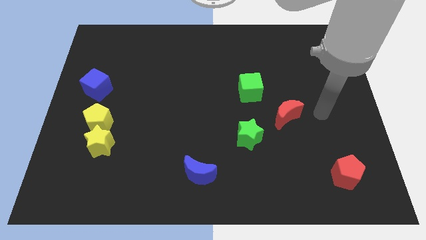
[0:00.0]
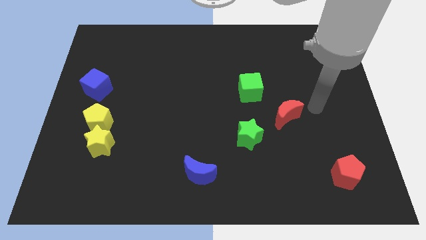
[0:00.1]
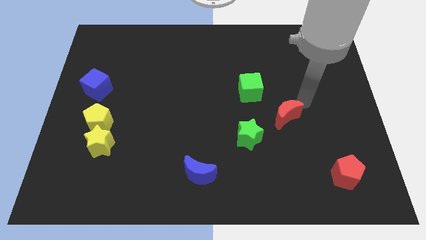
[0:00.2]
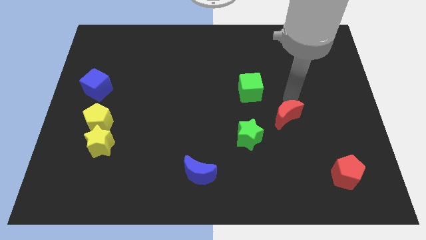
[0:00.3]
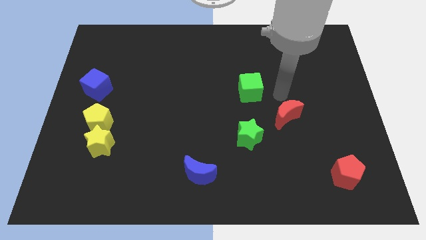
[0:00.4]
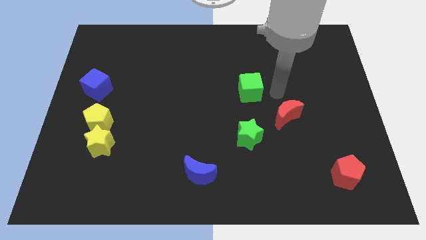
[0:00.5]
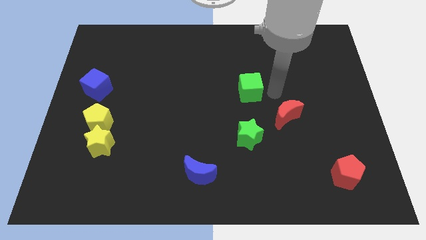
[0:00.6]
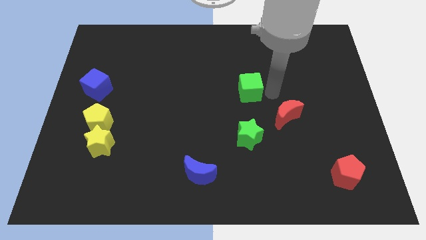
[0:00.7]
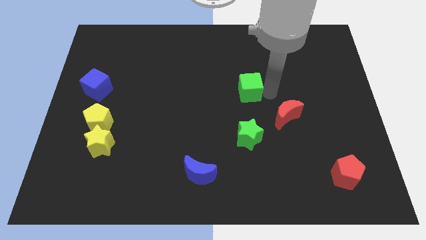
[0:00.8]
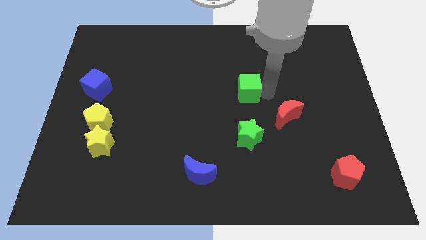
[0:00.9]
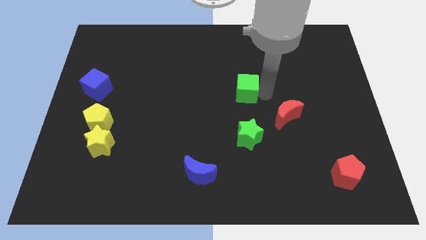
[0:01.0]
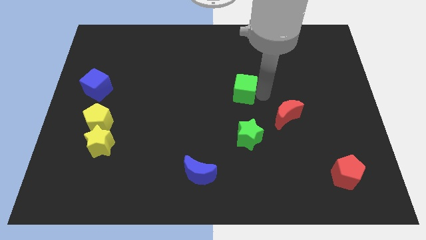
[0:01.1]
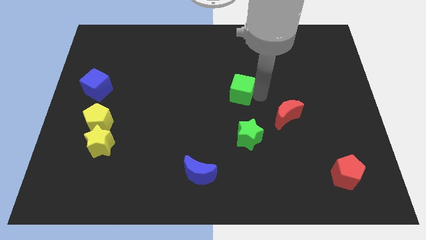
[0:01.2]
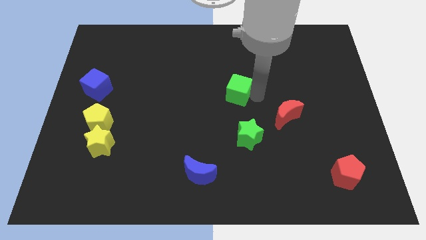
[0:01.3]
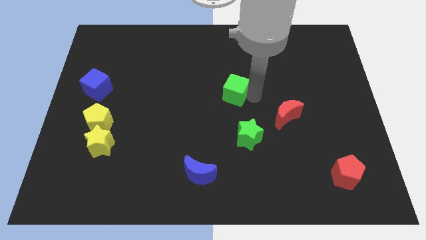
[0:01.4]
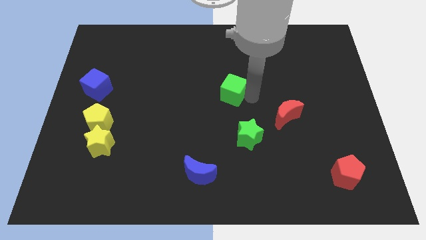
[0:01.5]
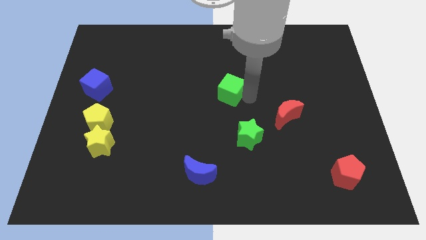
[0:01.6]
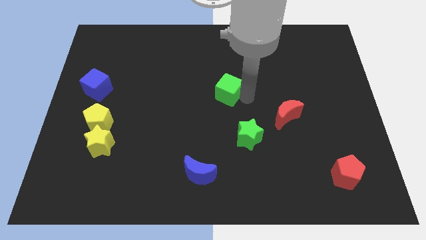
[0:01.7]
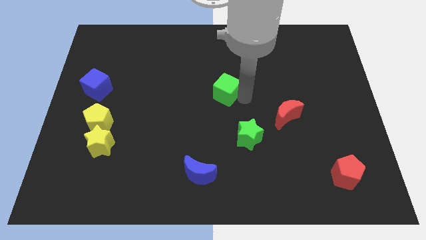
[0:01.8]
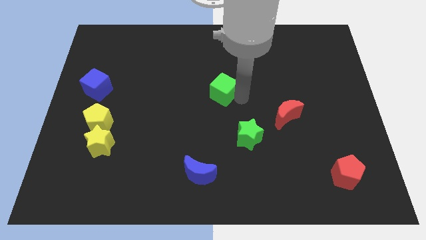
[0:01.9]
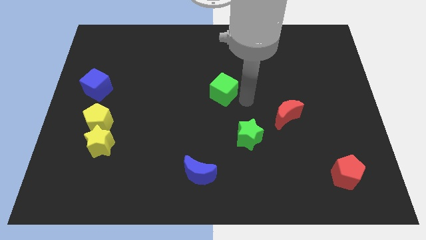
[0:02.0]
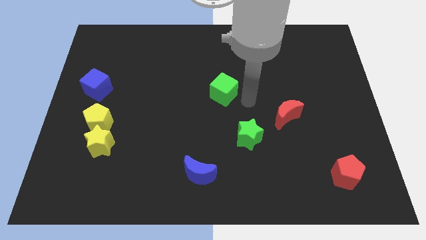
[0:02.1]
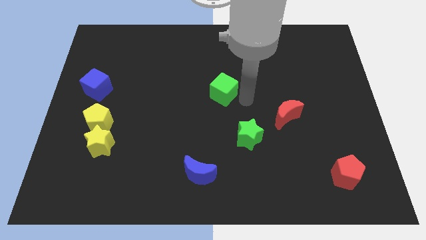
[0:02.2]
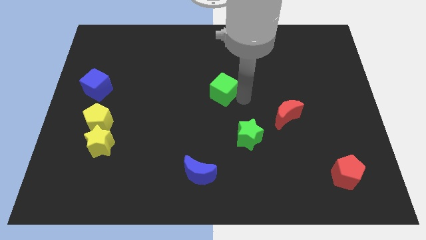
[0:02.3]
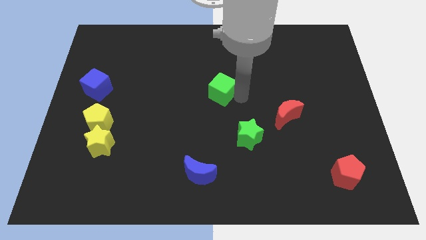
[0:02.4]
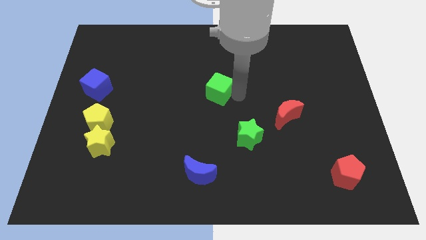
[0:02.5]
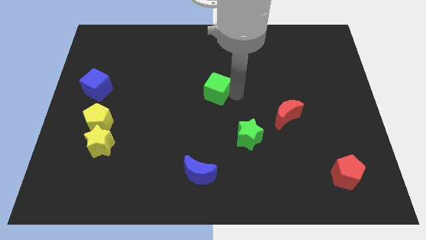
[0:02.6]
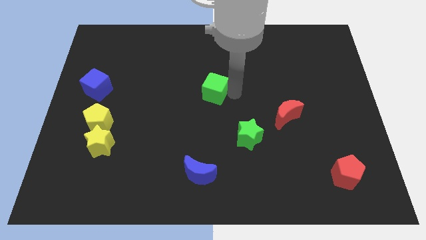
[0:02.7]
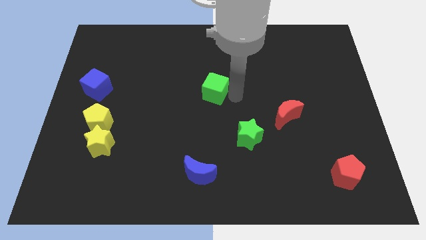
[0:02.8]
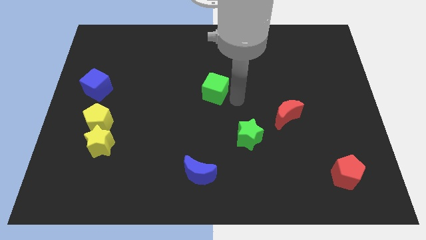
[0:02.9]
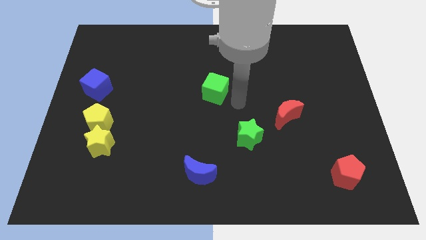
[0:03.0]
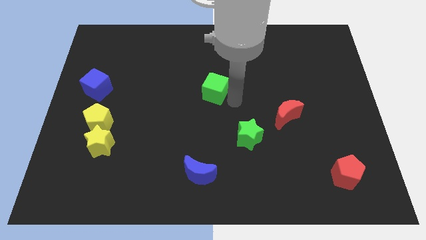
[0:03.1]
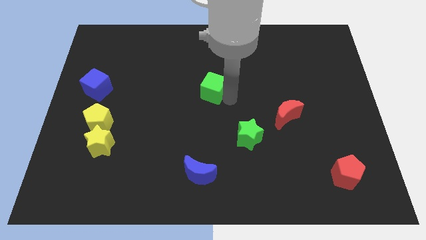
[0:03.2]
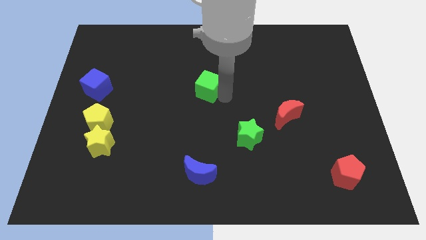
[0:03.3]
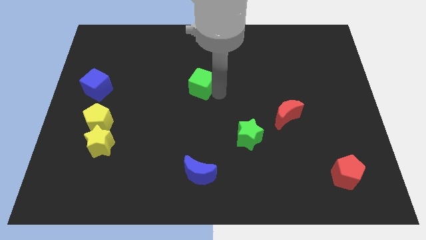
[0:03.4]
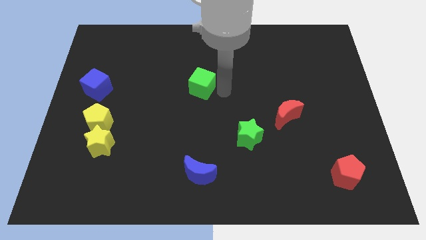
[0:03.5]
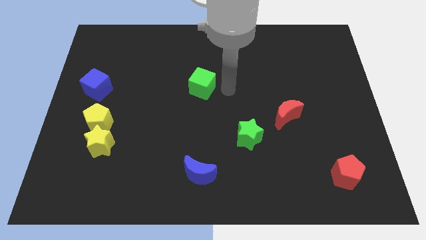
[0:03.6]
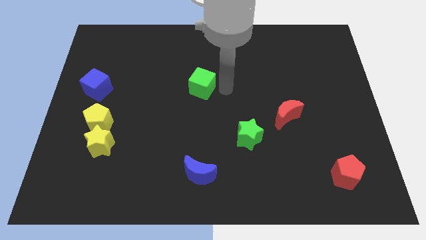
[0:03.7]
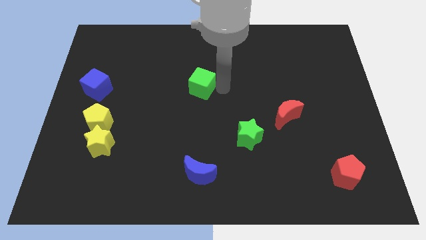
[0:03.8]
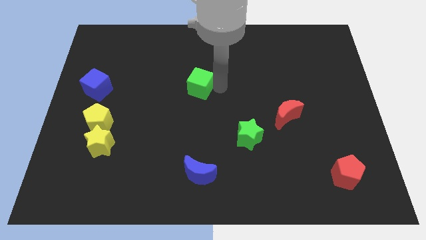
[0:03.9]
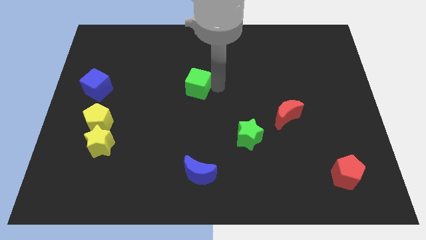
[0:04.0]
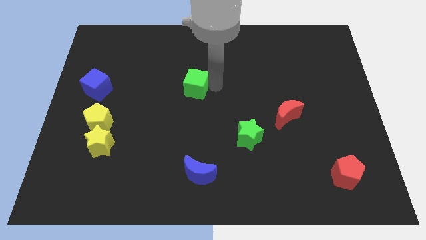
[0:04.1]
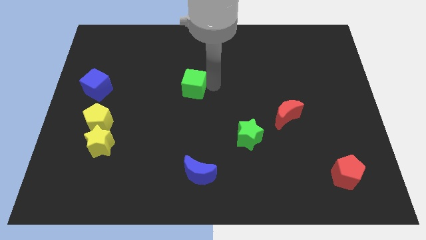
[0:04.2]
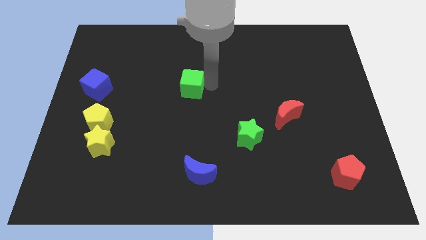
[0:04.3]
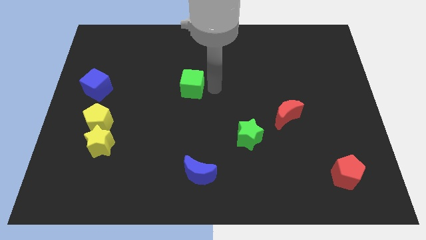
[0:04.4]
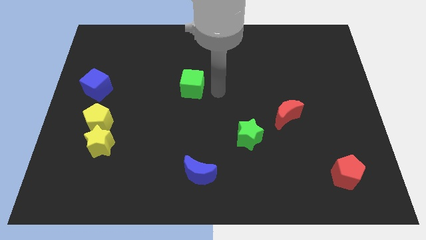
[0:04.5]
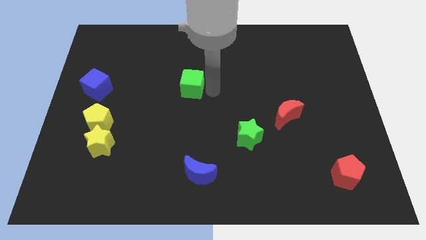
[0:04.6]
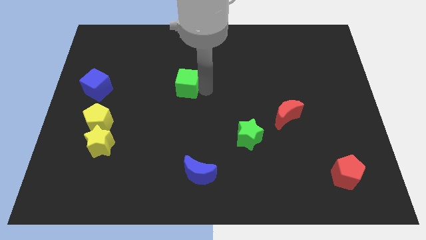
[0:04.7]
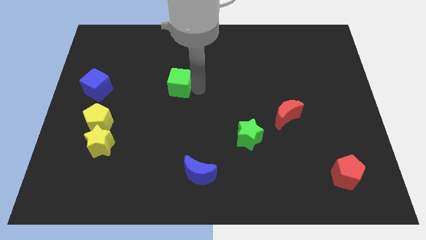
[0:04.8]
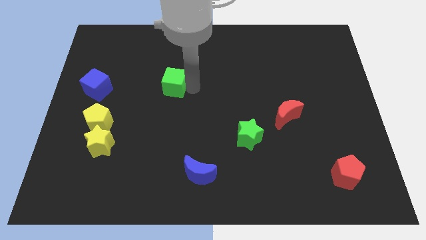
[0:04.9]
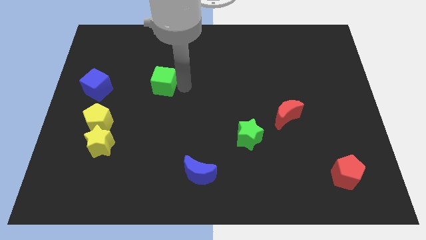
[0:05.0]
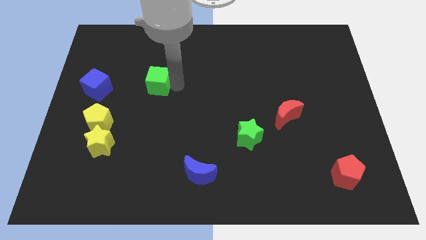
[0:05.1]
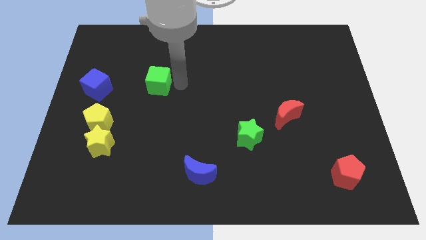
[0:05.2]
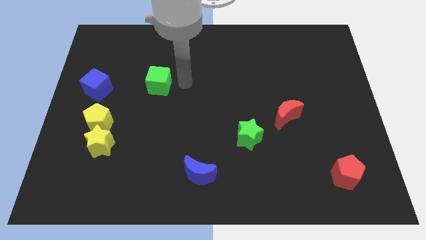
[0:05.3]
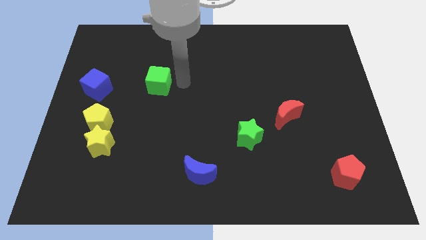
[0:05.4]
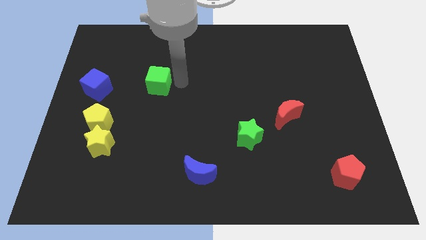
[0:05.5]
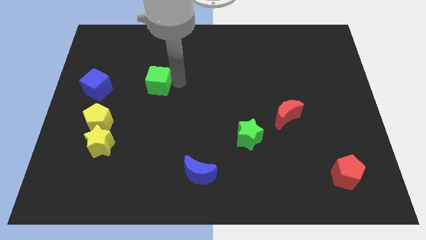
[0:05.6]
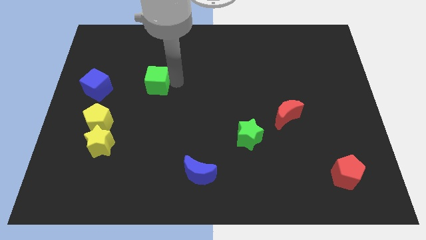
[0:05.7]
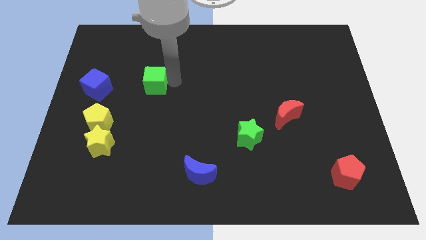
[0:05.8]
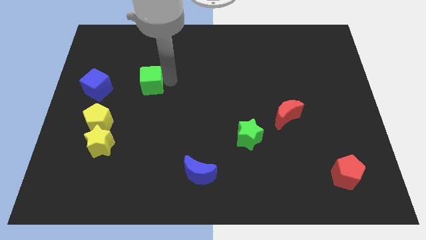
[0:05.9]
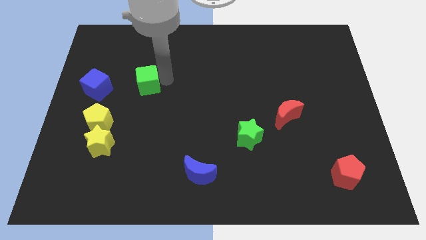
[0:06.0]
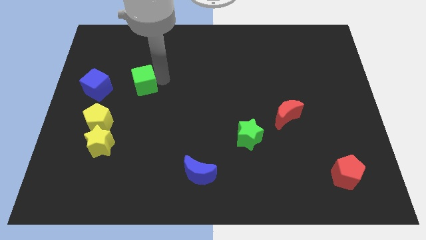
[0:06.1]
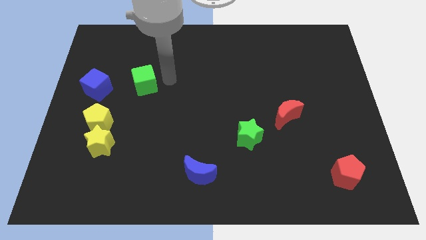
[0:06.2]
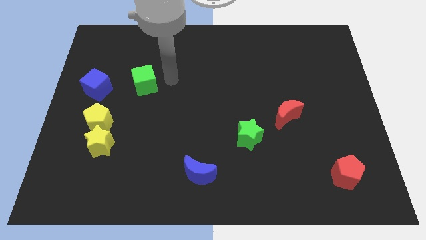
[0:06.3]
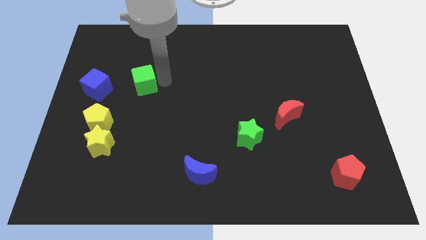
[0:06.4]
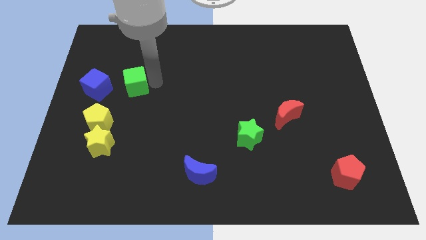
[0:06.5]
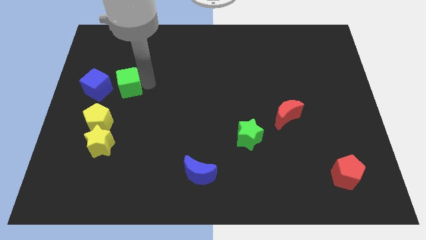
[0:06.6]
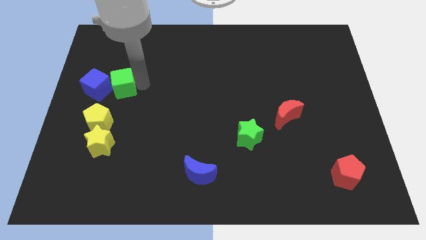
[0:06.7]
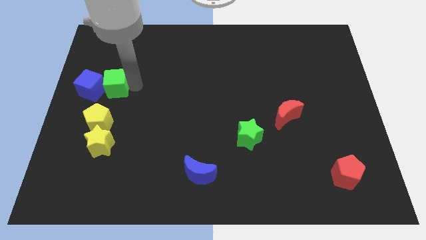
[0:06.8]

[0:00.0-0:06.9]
push the green cube to the blue cube

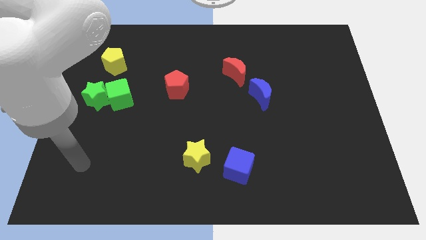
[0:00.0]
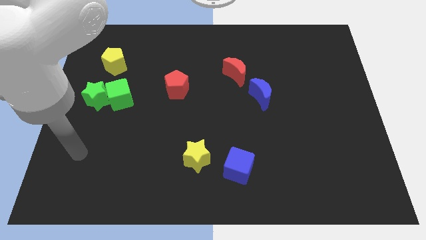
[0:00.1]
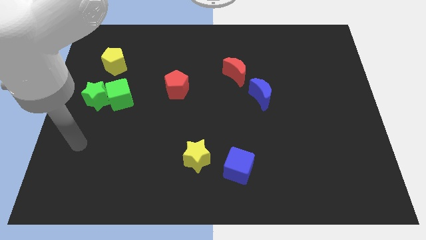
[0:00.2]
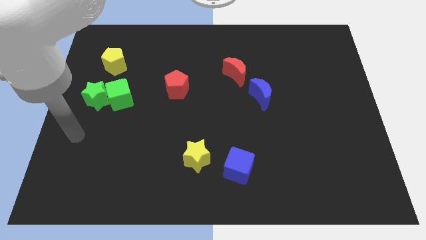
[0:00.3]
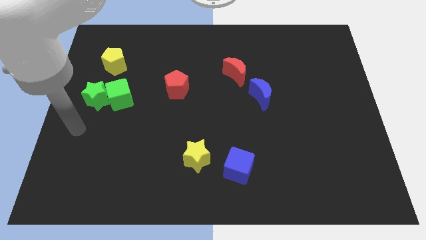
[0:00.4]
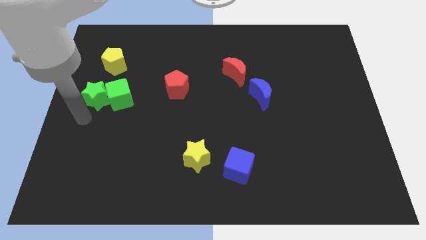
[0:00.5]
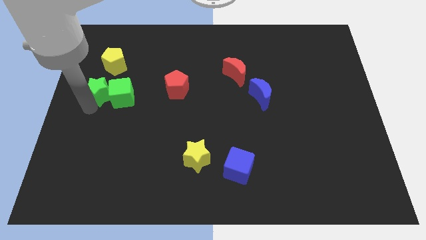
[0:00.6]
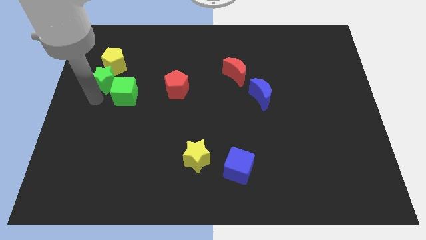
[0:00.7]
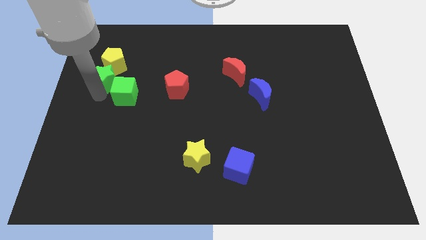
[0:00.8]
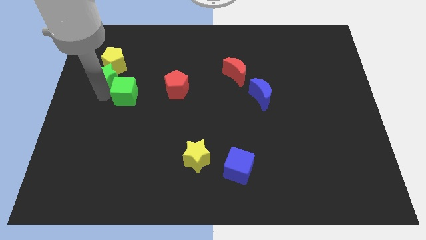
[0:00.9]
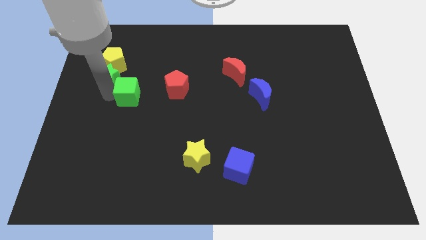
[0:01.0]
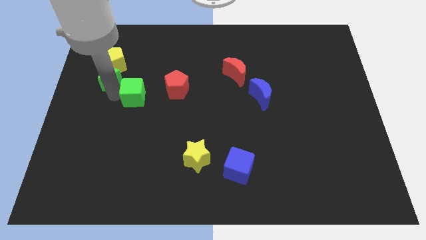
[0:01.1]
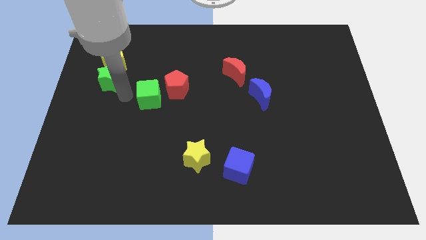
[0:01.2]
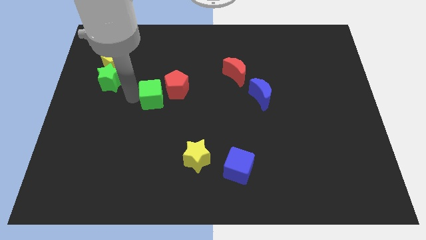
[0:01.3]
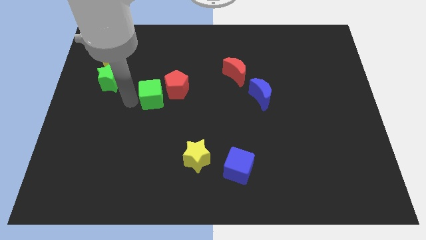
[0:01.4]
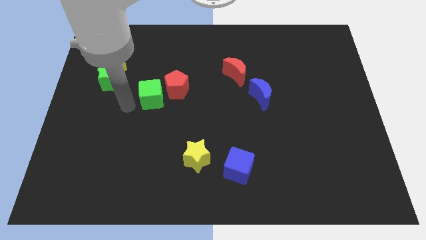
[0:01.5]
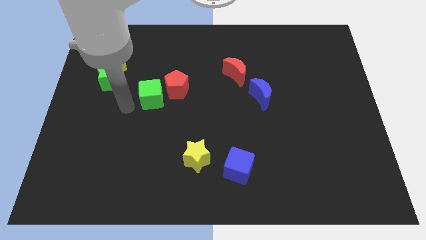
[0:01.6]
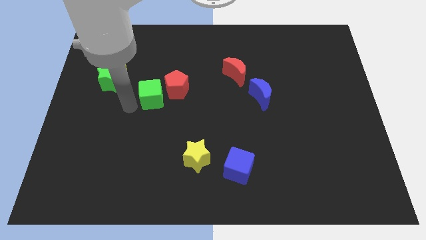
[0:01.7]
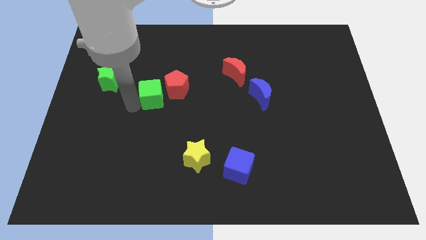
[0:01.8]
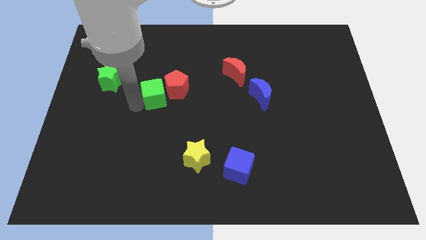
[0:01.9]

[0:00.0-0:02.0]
push the green cube next to the red pentagon
